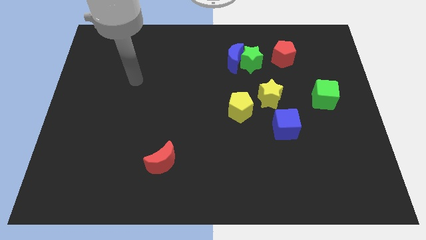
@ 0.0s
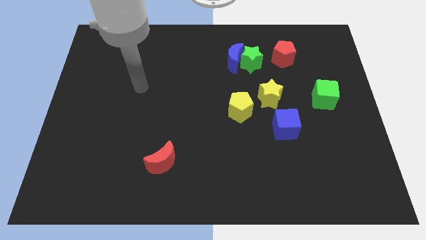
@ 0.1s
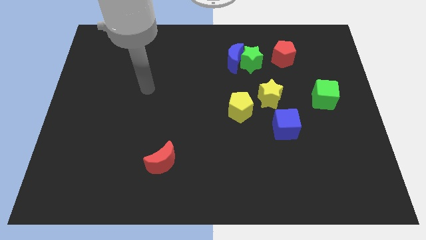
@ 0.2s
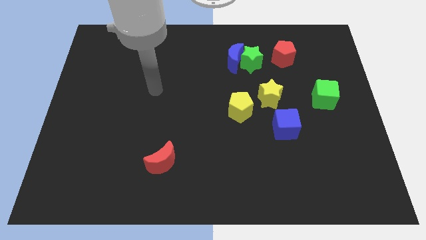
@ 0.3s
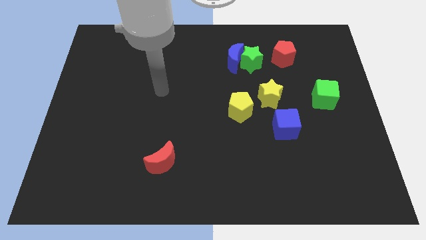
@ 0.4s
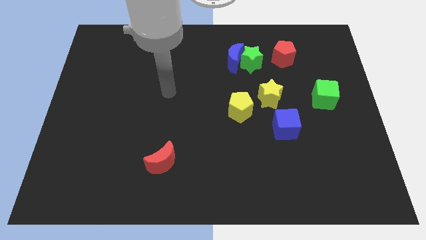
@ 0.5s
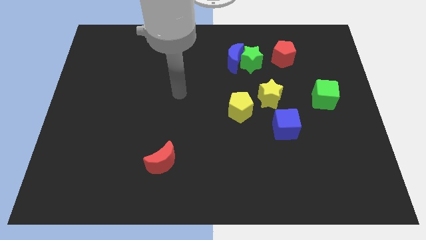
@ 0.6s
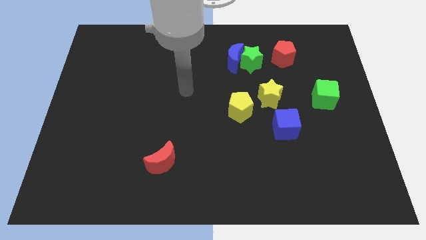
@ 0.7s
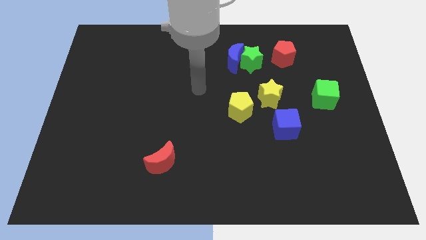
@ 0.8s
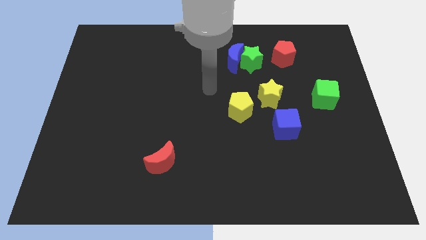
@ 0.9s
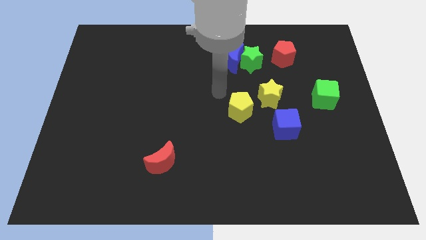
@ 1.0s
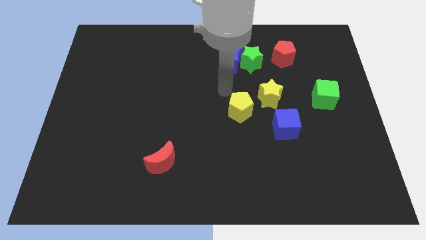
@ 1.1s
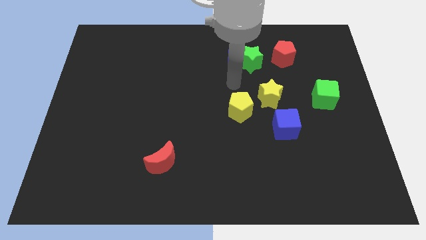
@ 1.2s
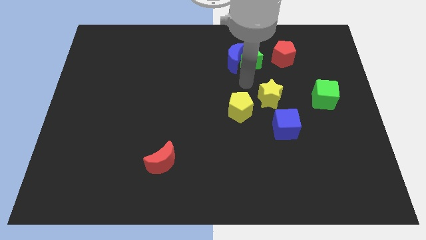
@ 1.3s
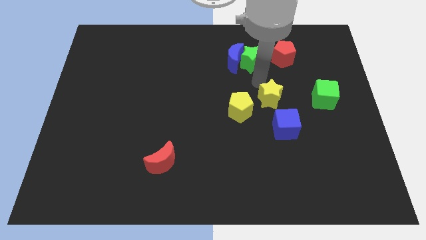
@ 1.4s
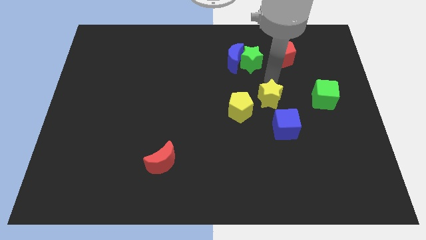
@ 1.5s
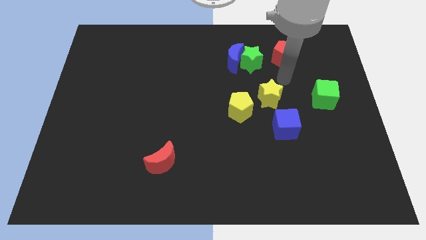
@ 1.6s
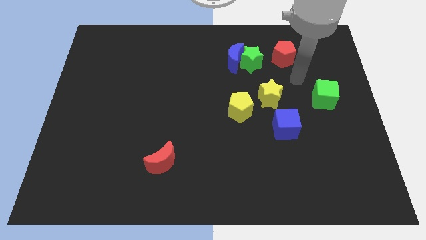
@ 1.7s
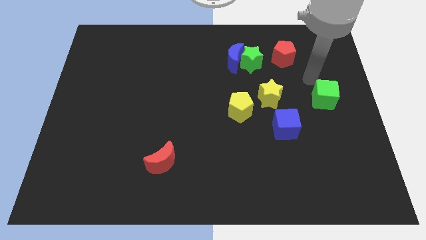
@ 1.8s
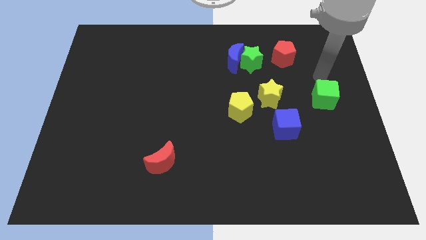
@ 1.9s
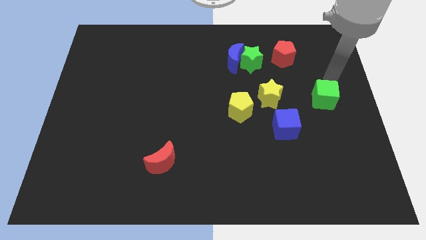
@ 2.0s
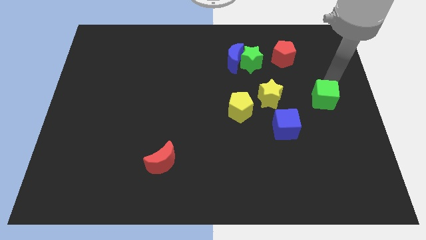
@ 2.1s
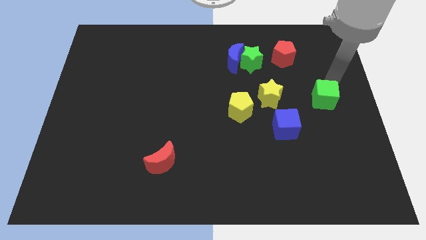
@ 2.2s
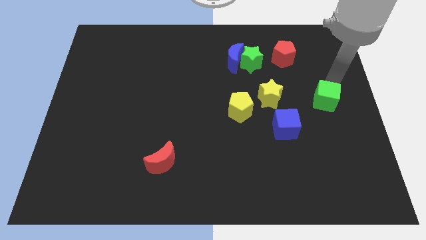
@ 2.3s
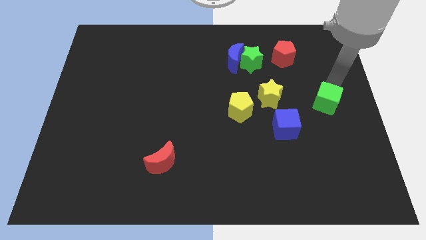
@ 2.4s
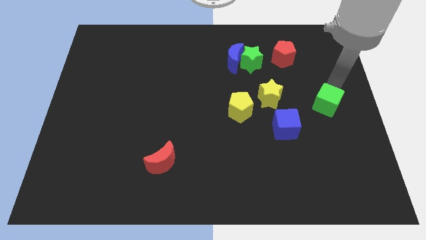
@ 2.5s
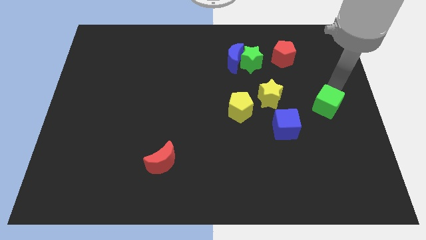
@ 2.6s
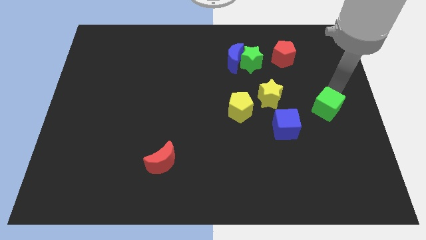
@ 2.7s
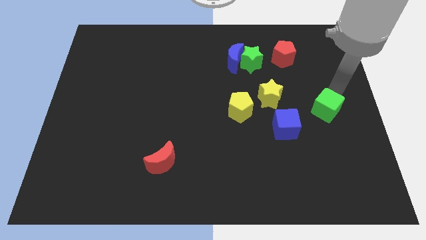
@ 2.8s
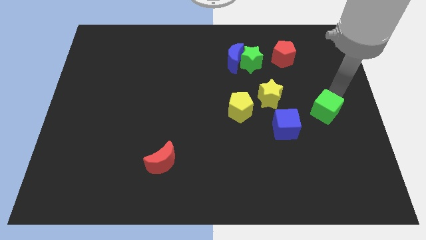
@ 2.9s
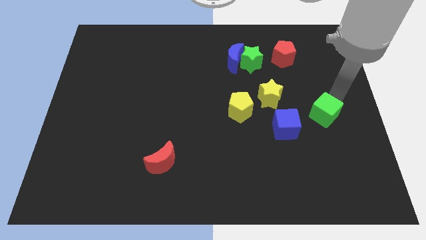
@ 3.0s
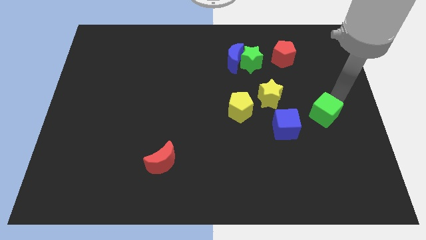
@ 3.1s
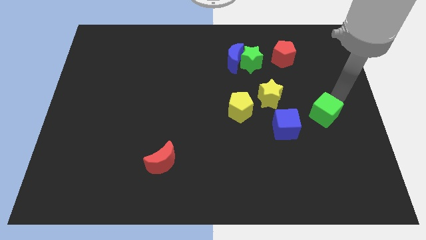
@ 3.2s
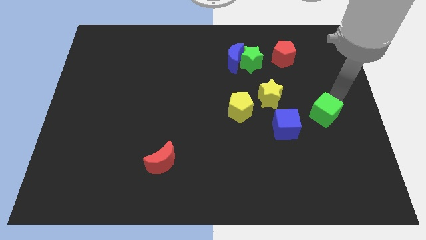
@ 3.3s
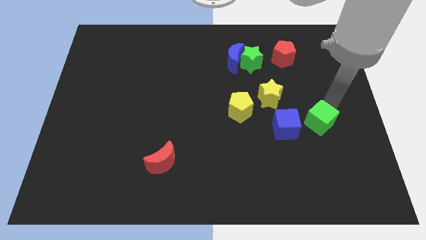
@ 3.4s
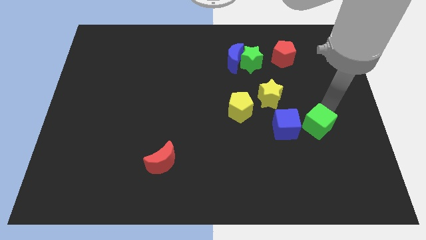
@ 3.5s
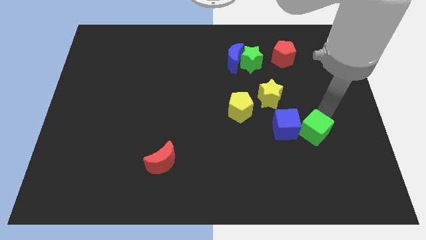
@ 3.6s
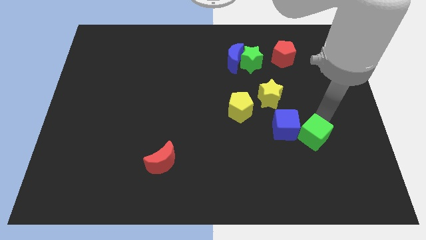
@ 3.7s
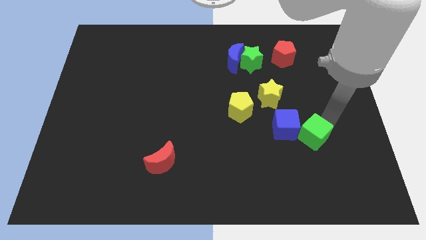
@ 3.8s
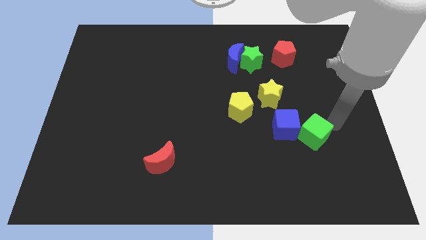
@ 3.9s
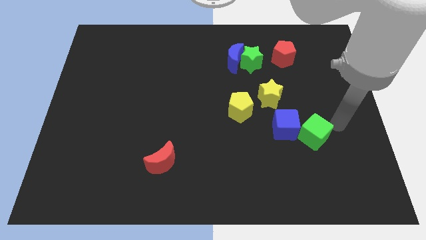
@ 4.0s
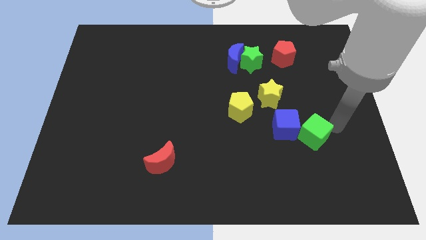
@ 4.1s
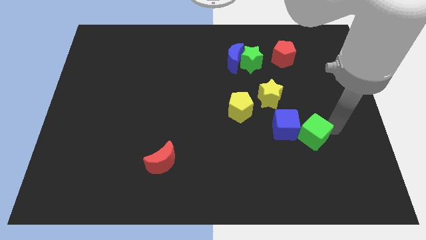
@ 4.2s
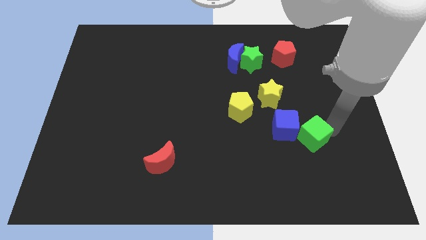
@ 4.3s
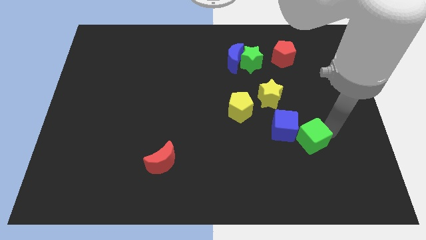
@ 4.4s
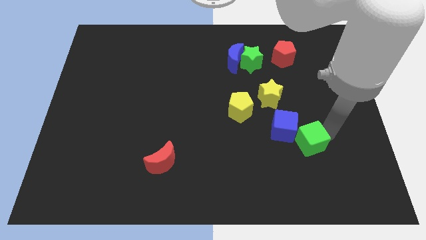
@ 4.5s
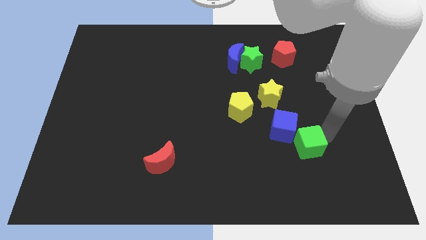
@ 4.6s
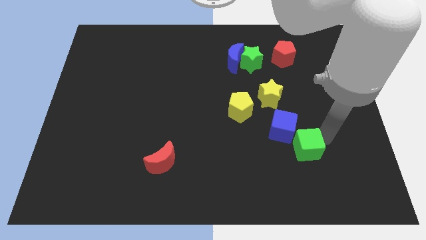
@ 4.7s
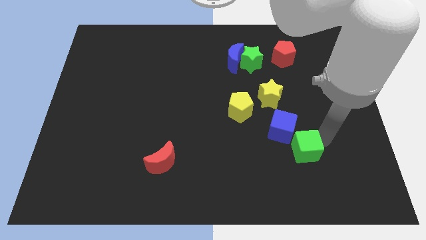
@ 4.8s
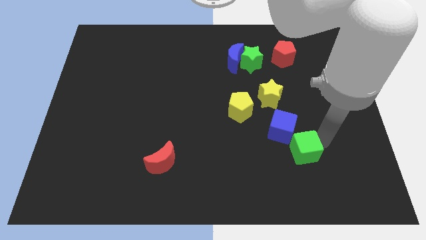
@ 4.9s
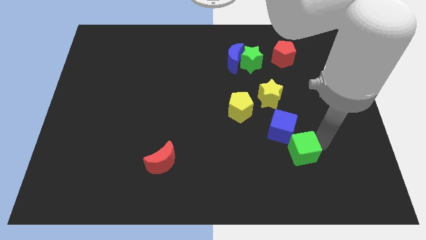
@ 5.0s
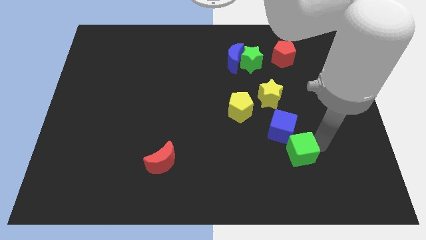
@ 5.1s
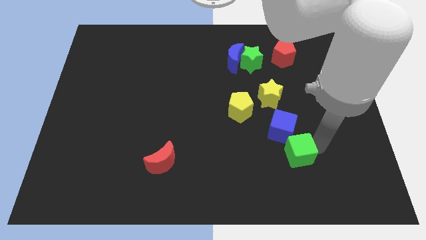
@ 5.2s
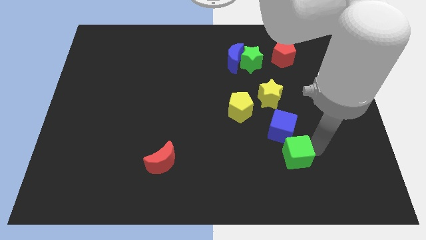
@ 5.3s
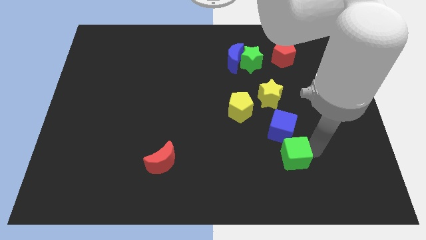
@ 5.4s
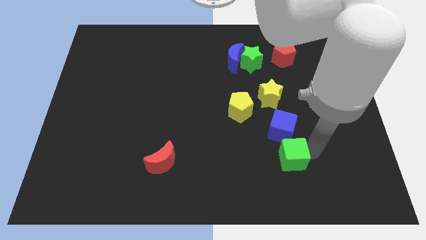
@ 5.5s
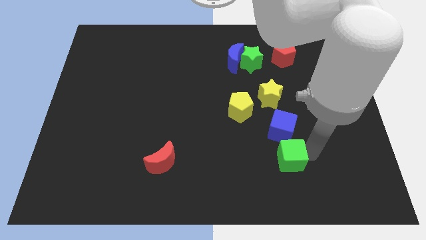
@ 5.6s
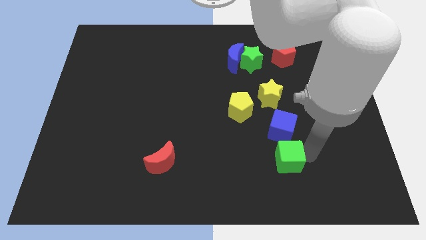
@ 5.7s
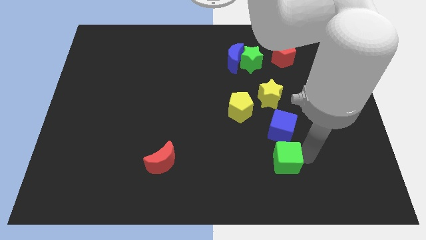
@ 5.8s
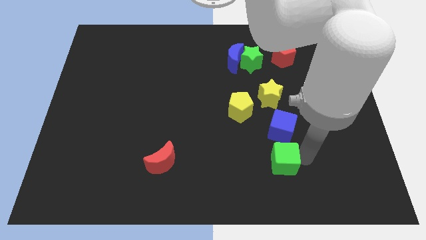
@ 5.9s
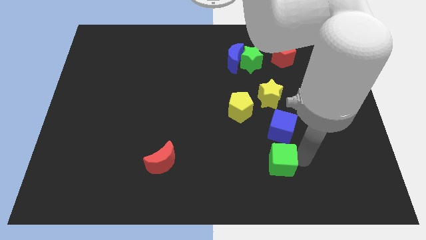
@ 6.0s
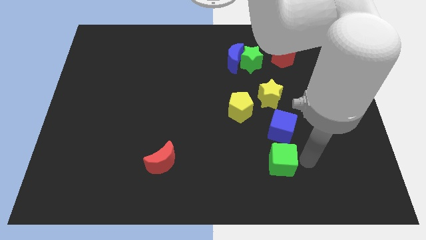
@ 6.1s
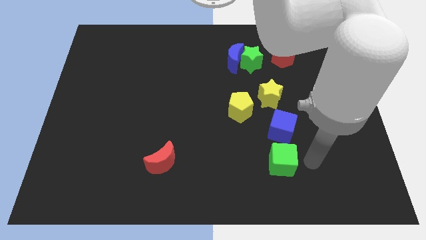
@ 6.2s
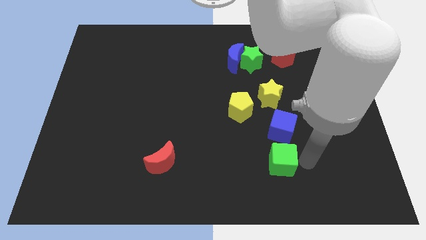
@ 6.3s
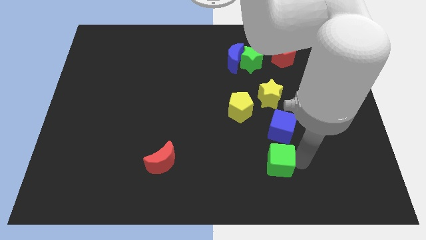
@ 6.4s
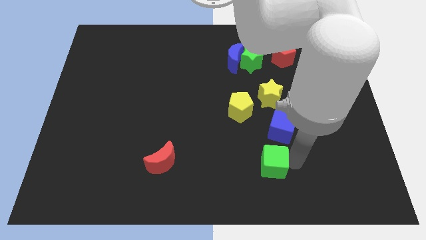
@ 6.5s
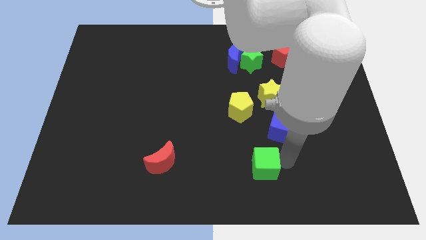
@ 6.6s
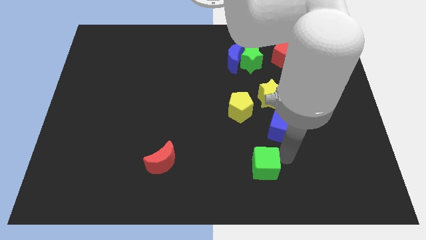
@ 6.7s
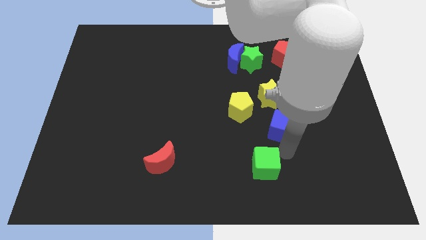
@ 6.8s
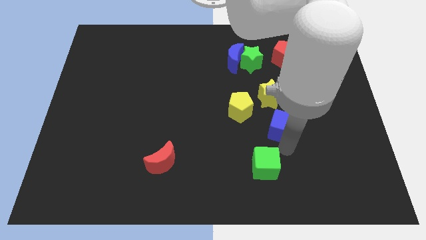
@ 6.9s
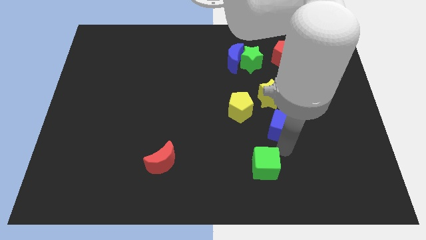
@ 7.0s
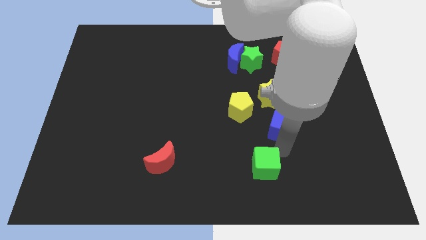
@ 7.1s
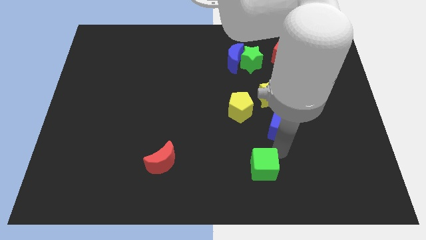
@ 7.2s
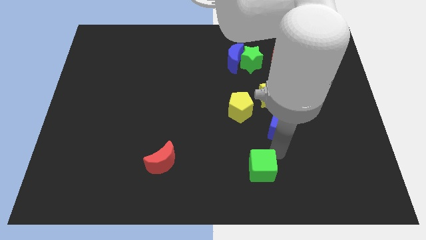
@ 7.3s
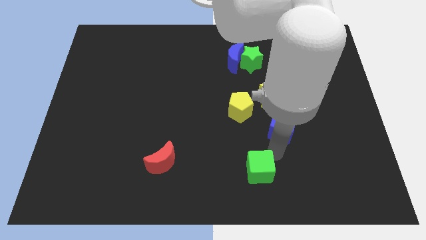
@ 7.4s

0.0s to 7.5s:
push the green cube to the bottom side
